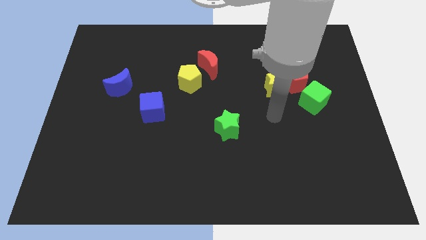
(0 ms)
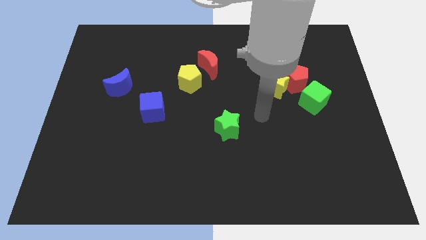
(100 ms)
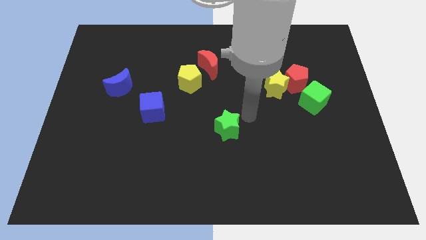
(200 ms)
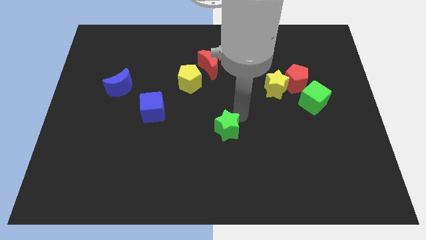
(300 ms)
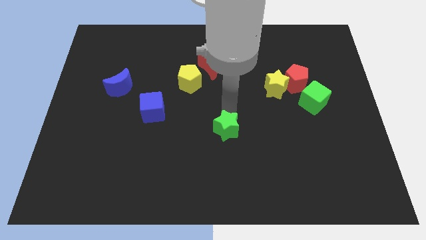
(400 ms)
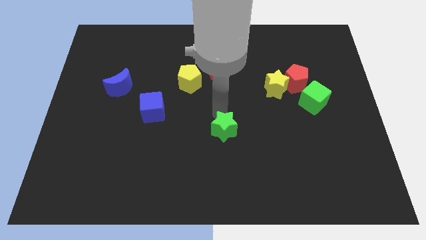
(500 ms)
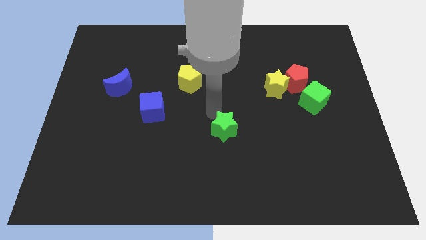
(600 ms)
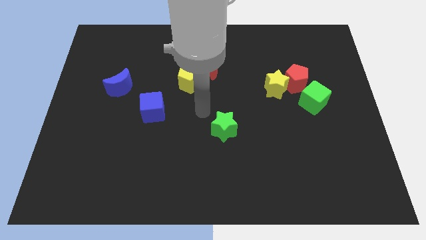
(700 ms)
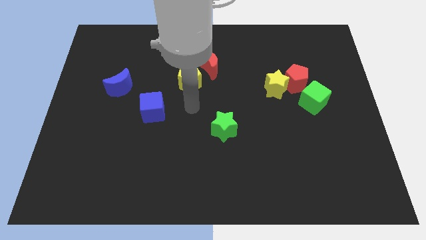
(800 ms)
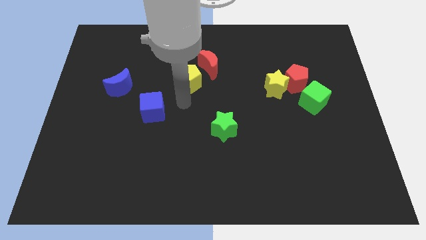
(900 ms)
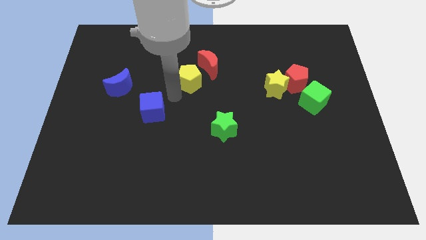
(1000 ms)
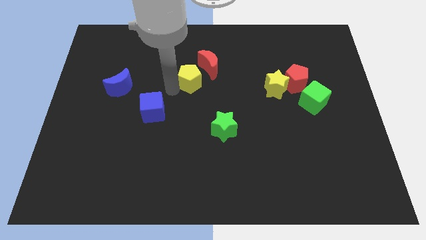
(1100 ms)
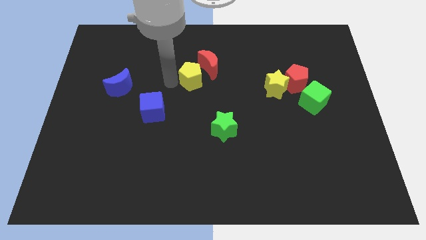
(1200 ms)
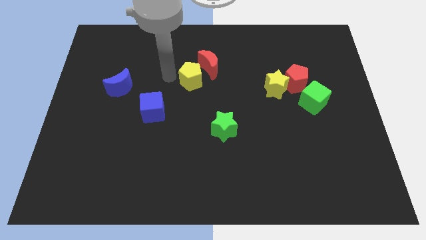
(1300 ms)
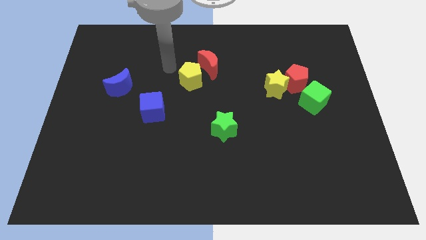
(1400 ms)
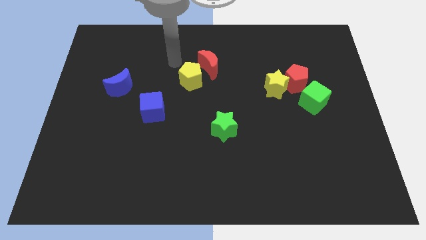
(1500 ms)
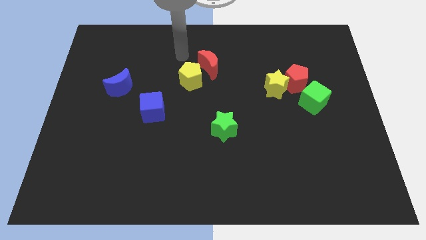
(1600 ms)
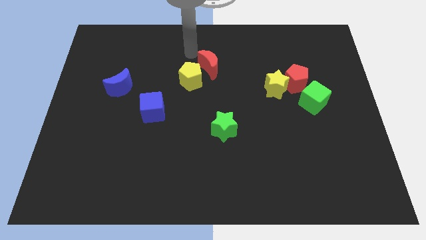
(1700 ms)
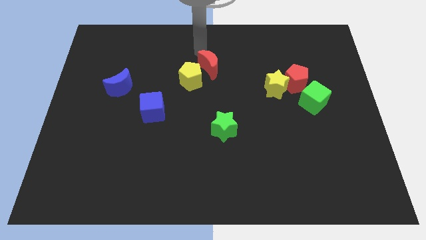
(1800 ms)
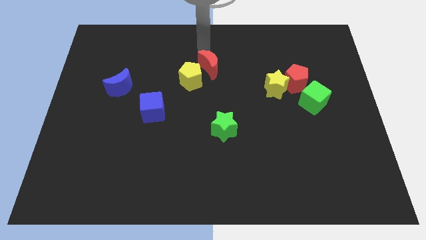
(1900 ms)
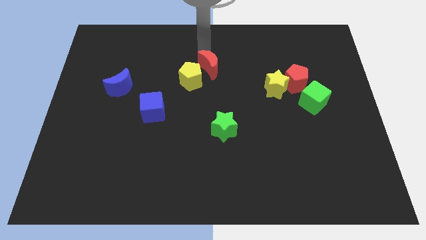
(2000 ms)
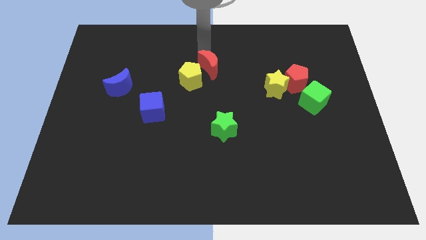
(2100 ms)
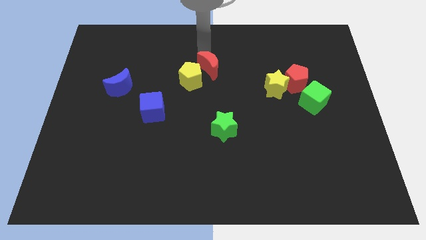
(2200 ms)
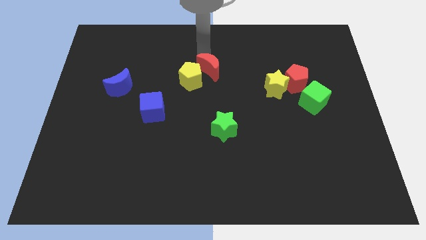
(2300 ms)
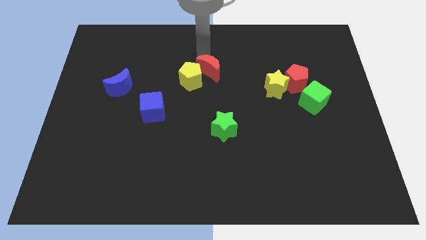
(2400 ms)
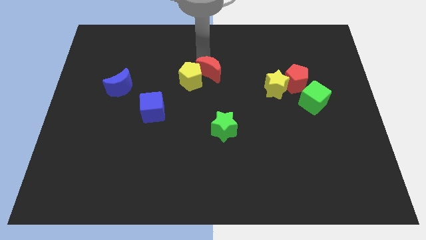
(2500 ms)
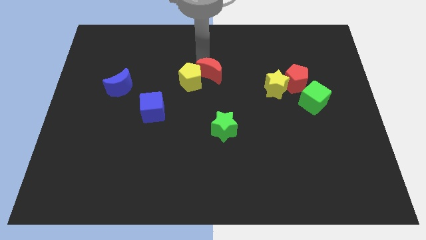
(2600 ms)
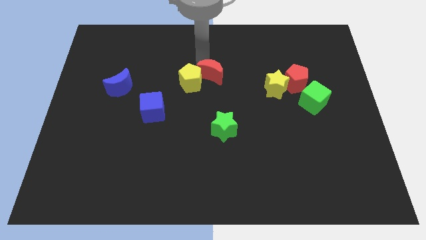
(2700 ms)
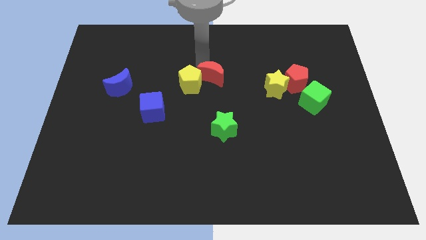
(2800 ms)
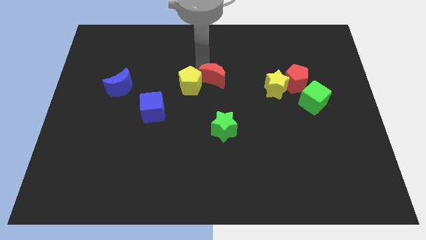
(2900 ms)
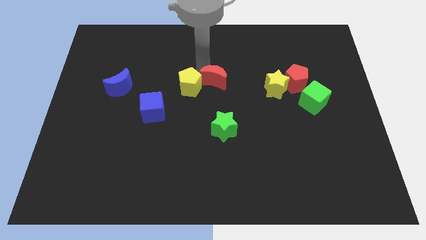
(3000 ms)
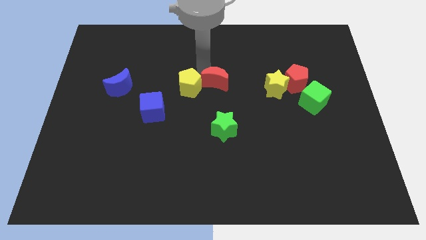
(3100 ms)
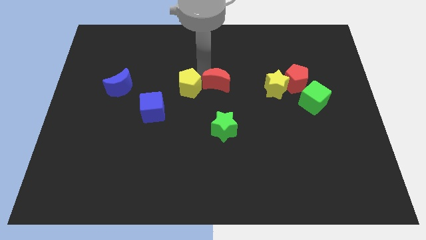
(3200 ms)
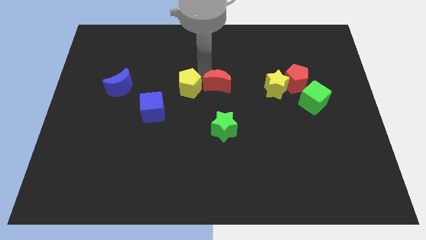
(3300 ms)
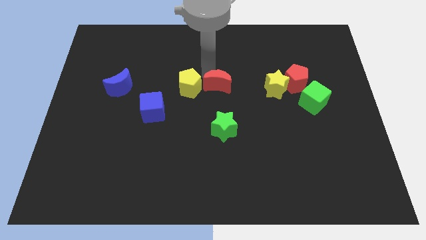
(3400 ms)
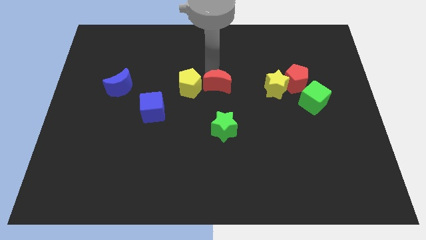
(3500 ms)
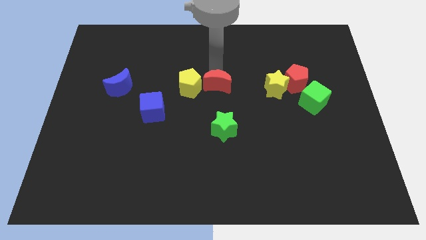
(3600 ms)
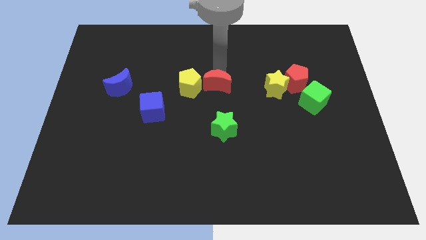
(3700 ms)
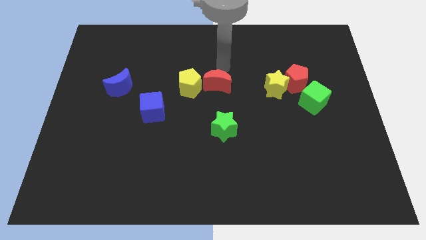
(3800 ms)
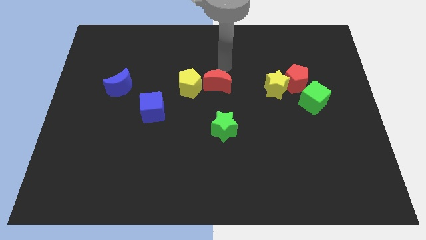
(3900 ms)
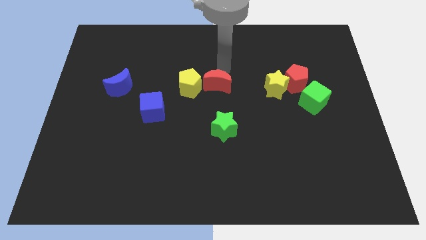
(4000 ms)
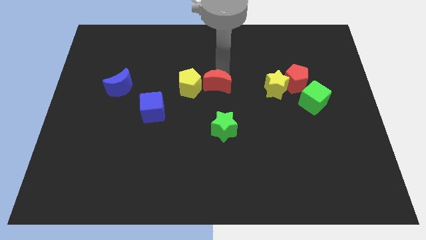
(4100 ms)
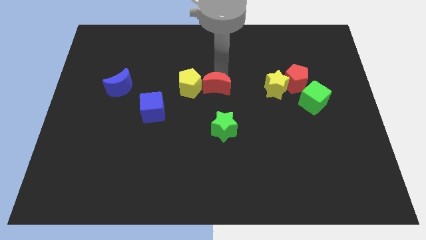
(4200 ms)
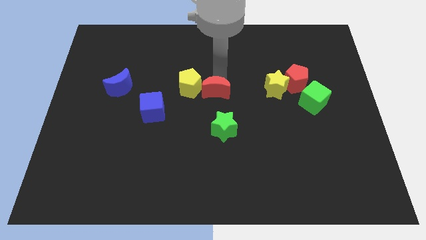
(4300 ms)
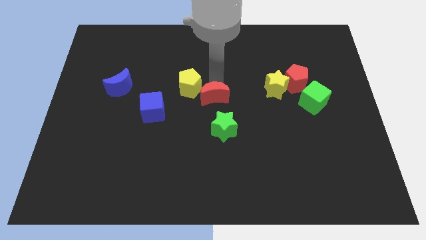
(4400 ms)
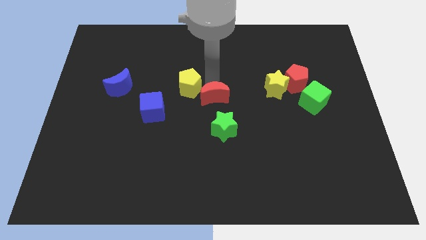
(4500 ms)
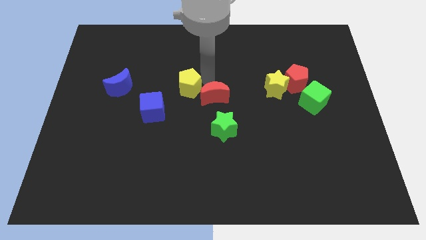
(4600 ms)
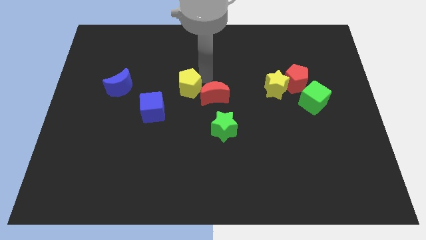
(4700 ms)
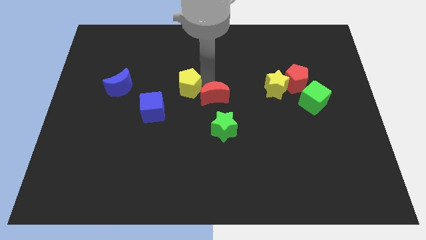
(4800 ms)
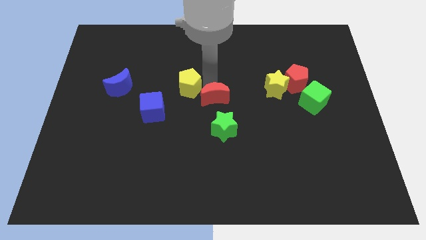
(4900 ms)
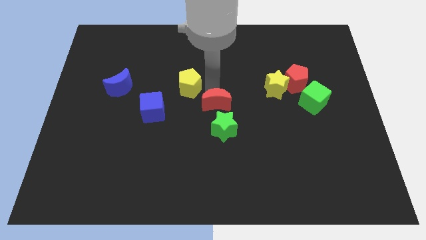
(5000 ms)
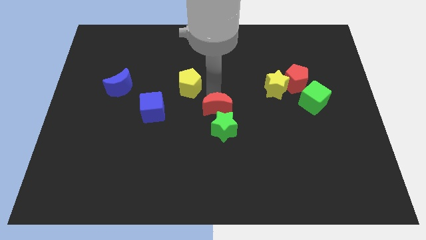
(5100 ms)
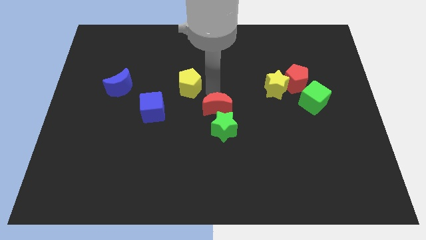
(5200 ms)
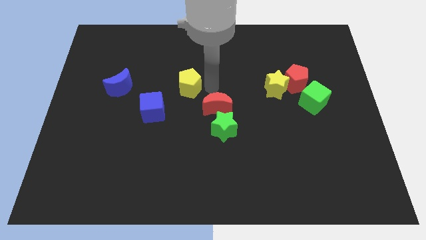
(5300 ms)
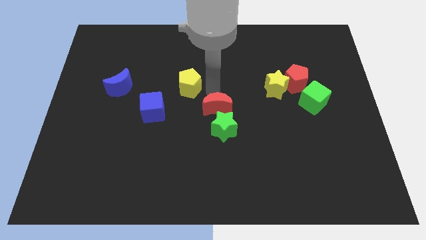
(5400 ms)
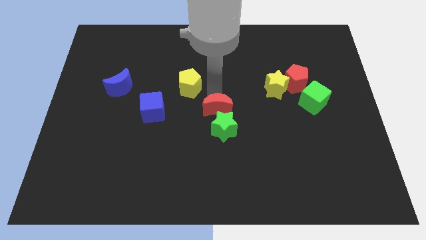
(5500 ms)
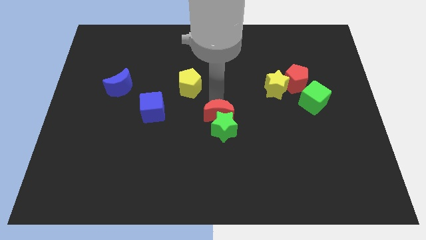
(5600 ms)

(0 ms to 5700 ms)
slide the red moon to the green star

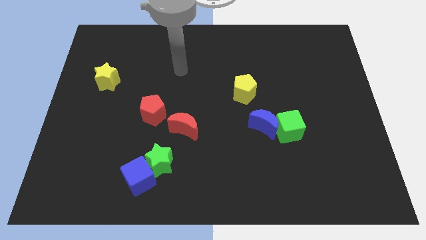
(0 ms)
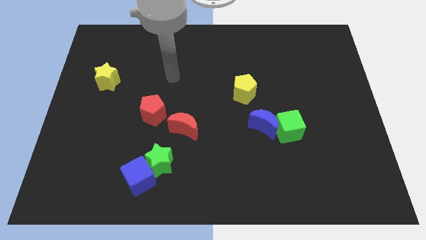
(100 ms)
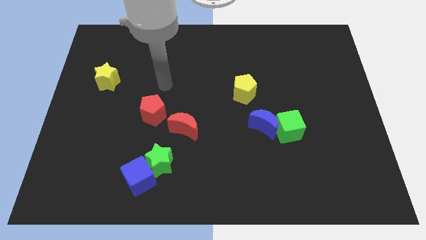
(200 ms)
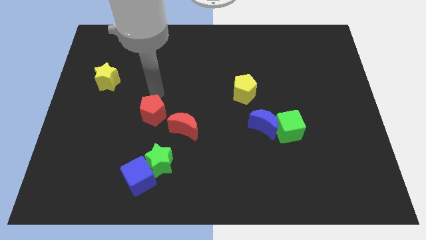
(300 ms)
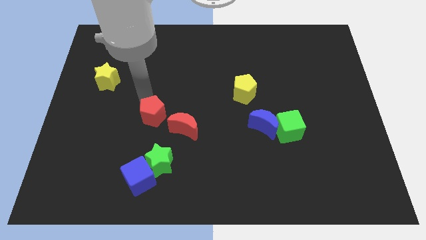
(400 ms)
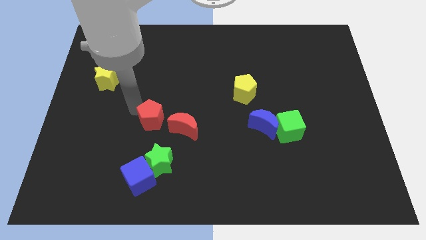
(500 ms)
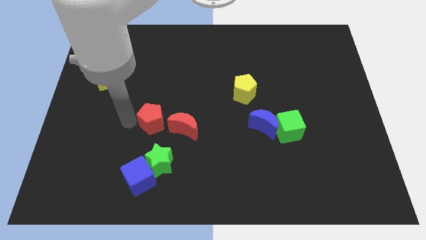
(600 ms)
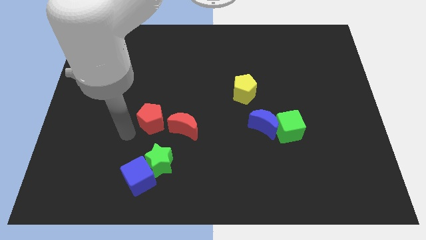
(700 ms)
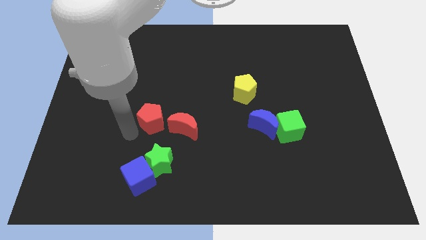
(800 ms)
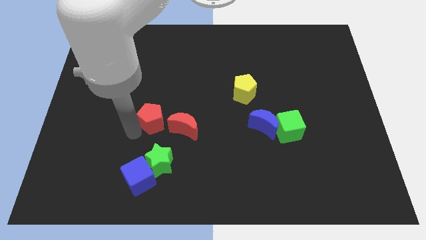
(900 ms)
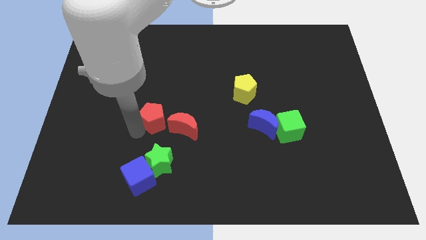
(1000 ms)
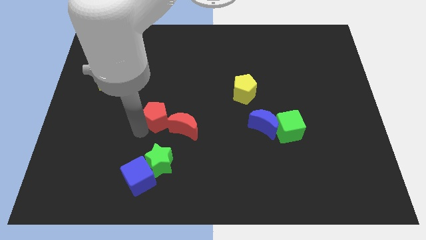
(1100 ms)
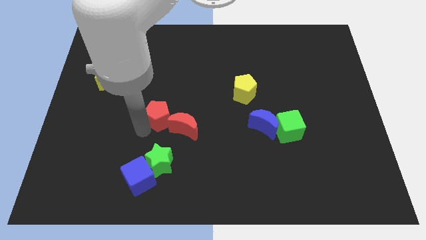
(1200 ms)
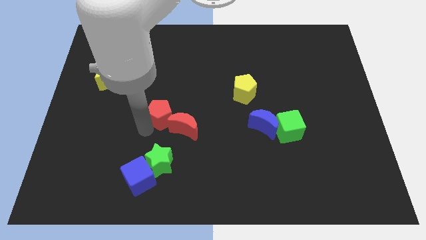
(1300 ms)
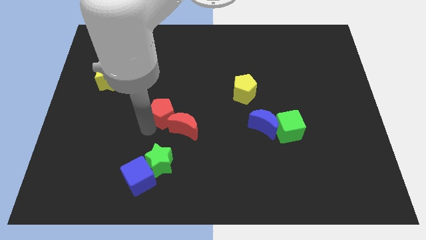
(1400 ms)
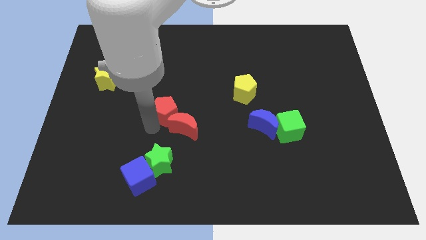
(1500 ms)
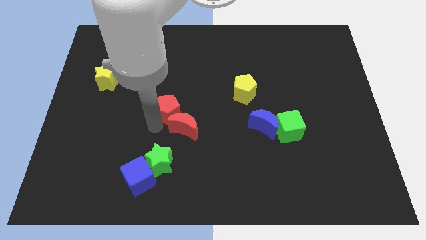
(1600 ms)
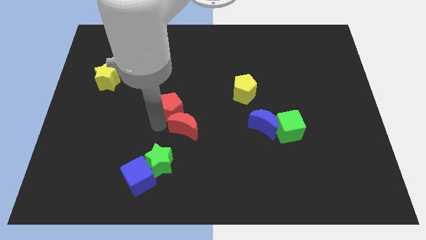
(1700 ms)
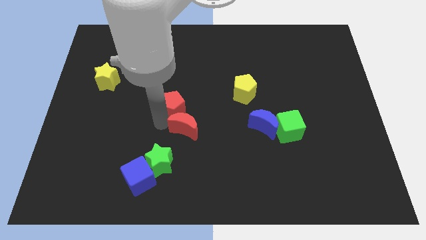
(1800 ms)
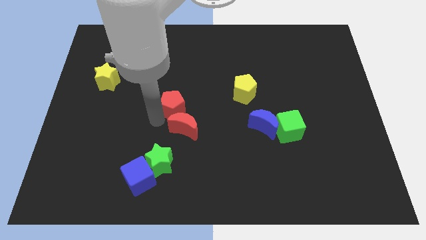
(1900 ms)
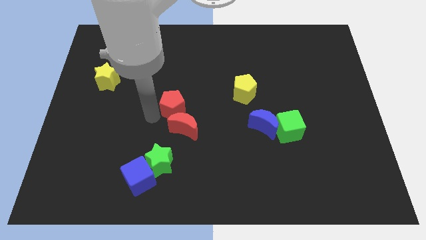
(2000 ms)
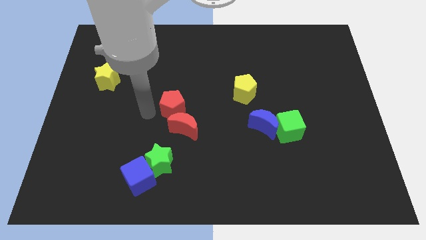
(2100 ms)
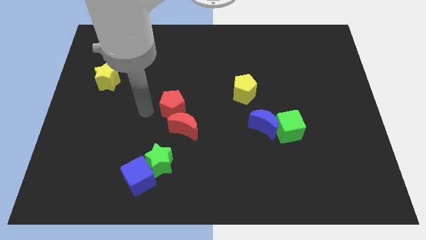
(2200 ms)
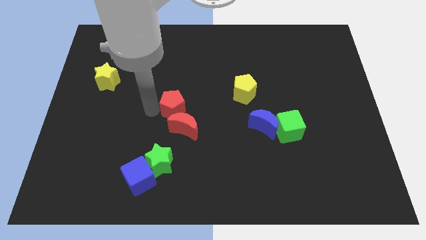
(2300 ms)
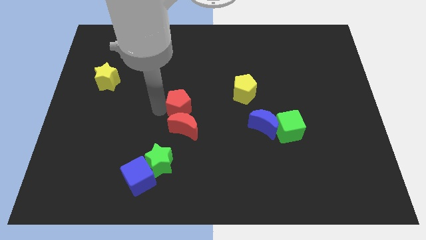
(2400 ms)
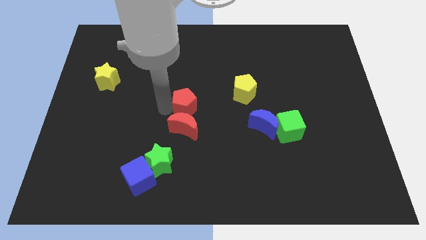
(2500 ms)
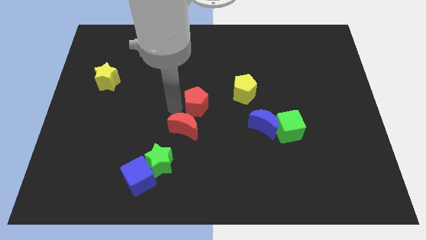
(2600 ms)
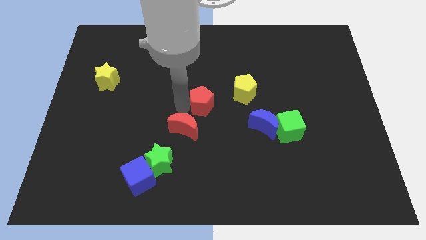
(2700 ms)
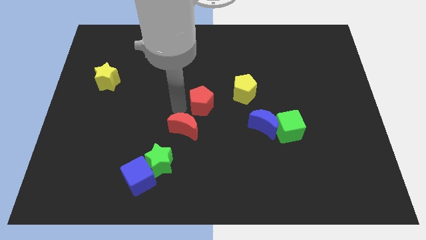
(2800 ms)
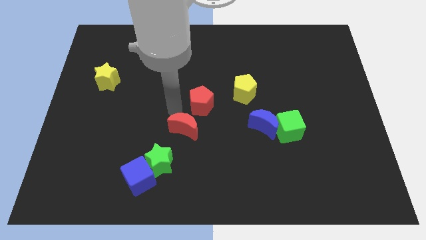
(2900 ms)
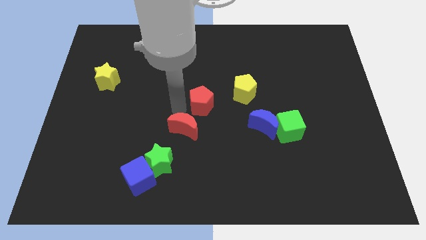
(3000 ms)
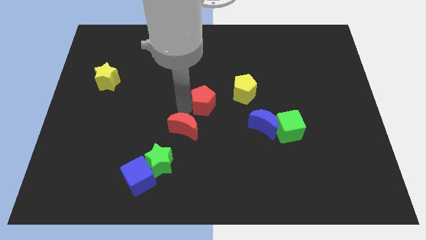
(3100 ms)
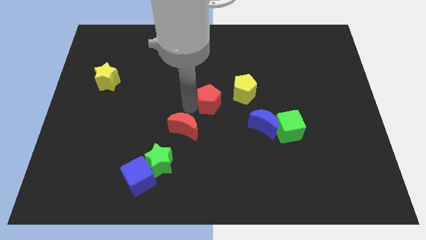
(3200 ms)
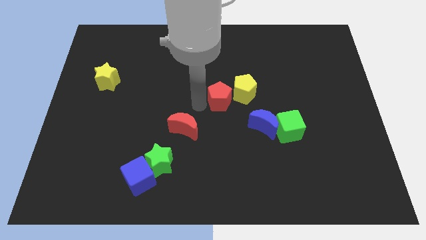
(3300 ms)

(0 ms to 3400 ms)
push the red pentagon to the yellow pentagon
